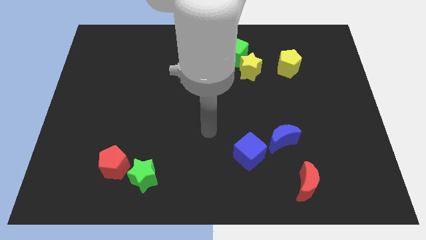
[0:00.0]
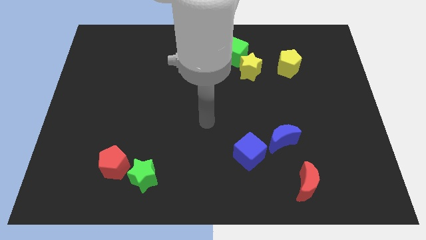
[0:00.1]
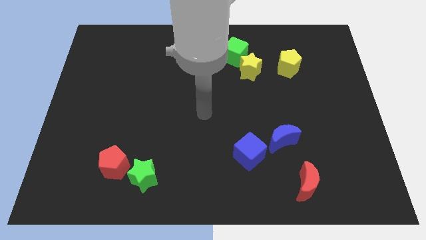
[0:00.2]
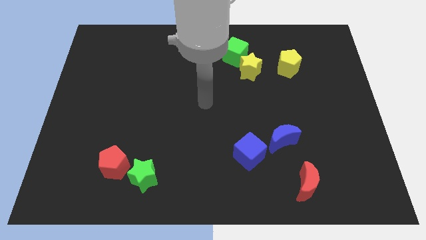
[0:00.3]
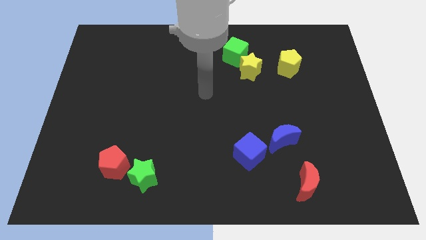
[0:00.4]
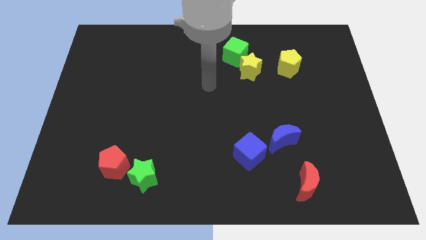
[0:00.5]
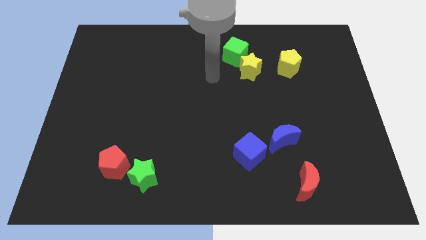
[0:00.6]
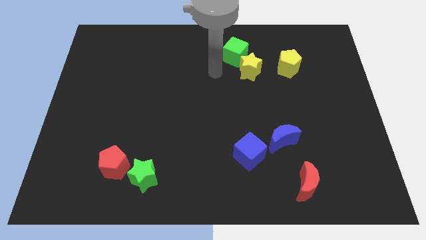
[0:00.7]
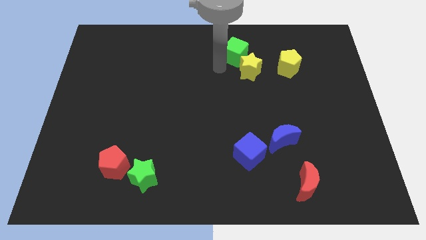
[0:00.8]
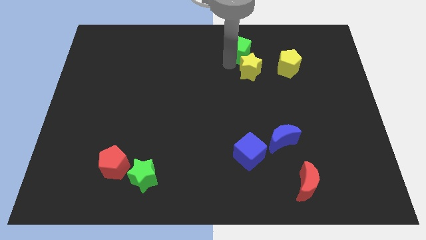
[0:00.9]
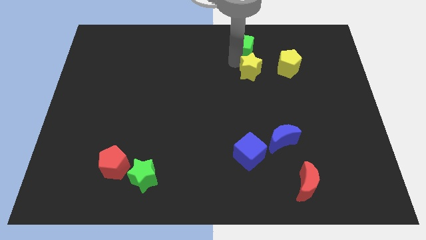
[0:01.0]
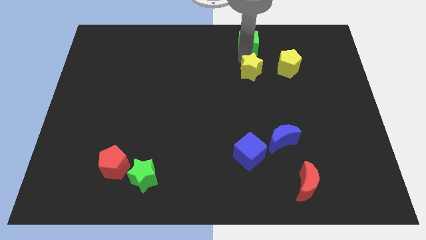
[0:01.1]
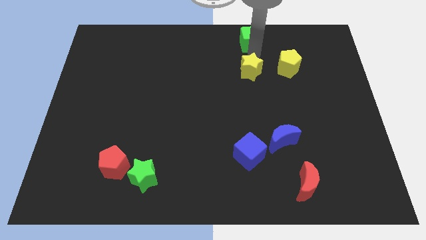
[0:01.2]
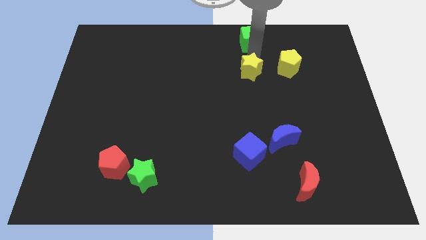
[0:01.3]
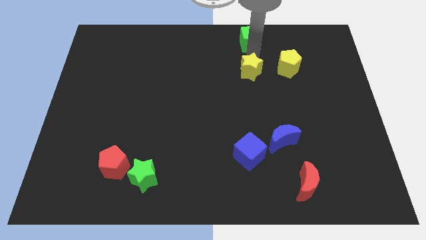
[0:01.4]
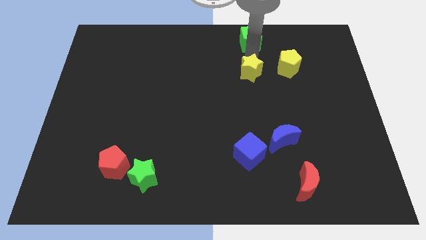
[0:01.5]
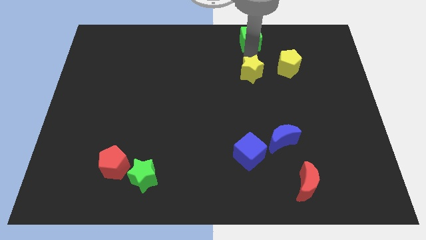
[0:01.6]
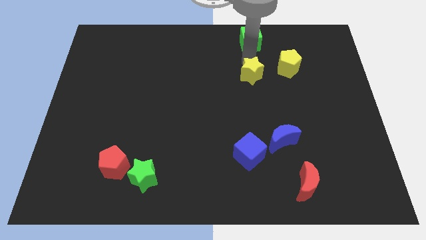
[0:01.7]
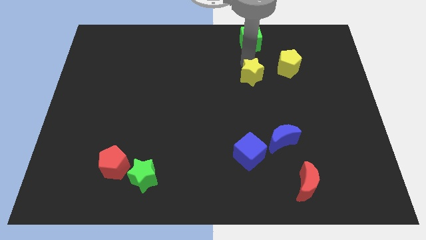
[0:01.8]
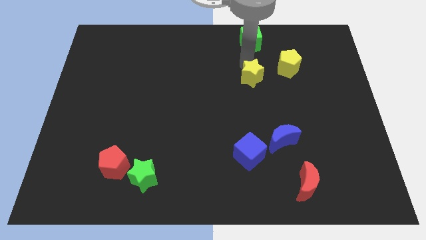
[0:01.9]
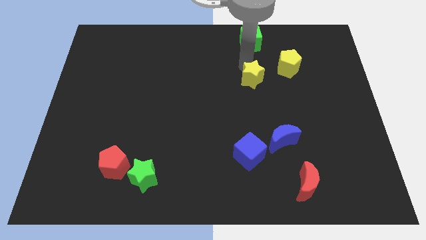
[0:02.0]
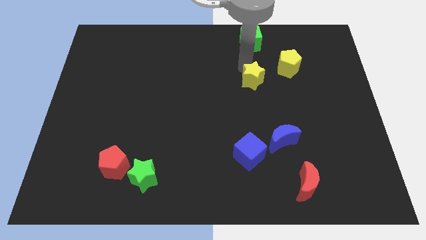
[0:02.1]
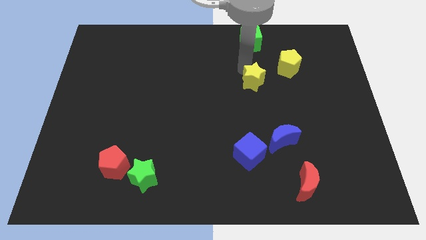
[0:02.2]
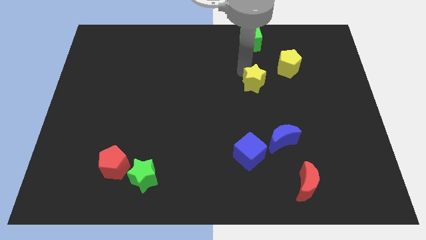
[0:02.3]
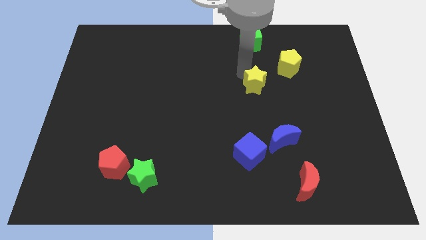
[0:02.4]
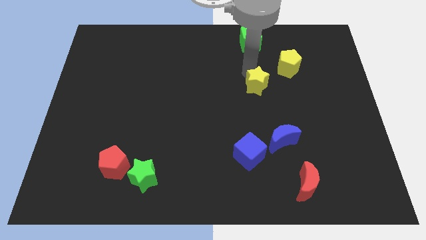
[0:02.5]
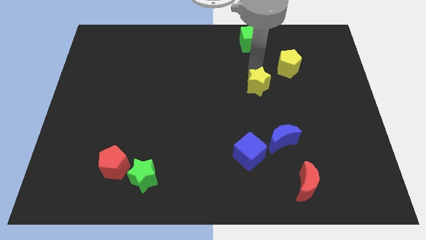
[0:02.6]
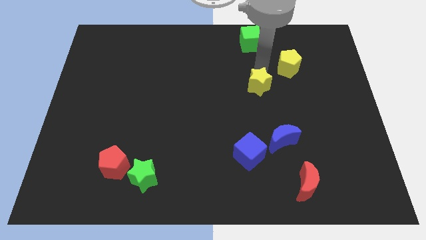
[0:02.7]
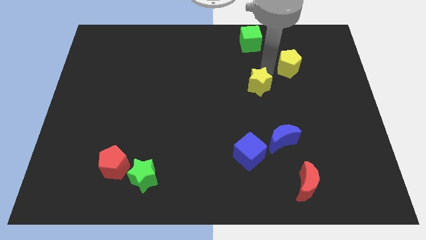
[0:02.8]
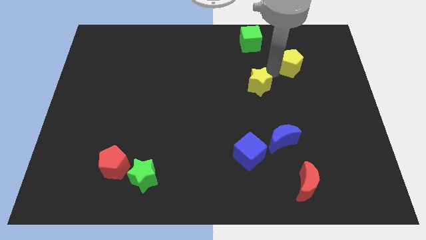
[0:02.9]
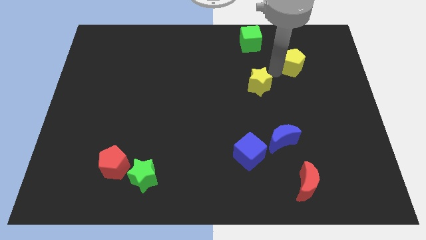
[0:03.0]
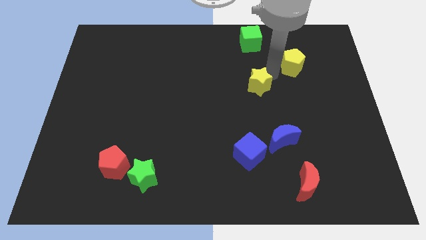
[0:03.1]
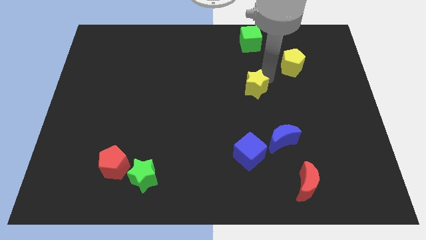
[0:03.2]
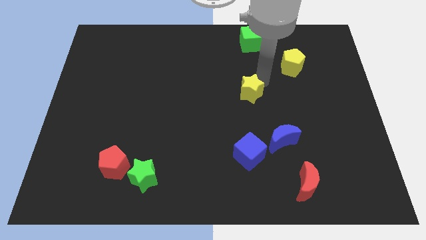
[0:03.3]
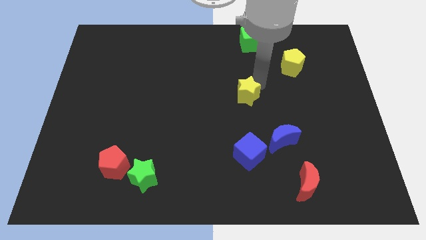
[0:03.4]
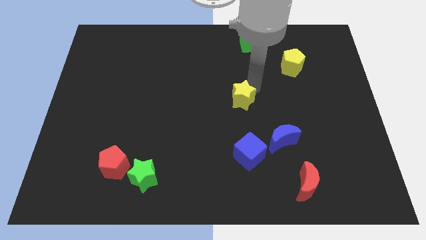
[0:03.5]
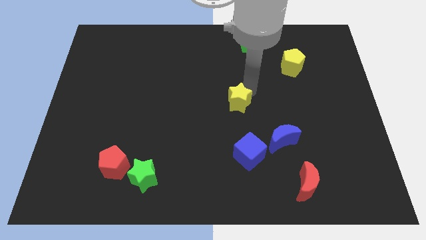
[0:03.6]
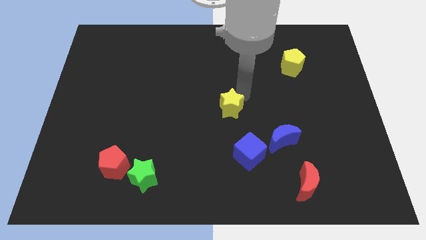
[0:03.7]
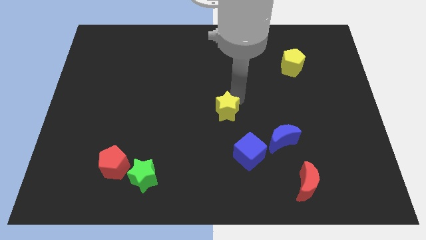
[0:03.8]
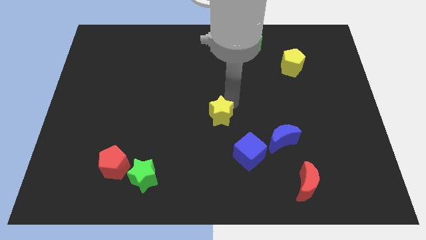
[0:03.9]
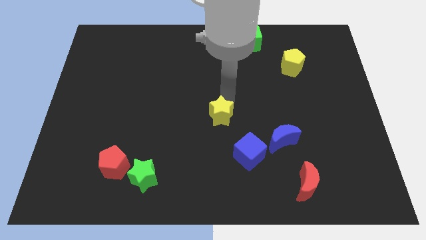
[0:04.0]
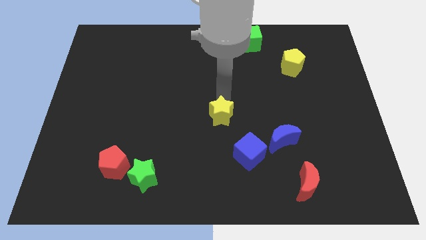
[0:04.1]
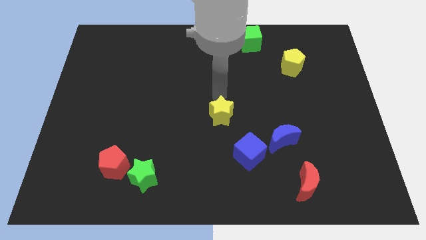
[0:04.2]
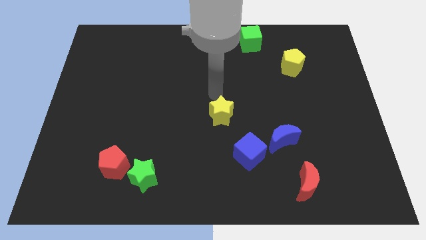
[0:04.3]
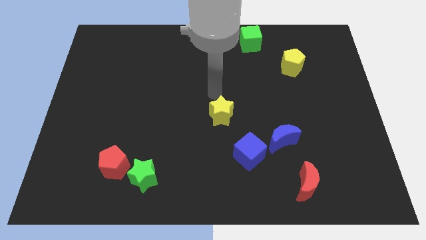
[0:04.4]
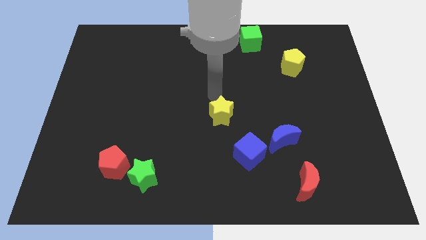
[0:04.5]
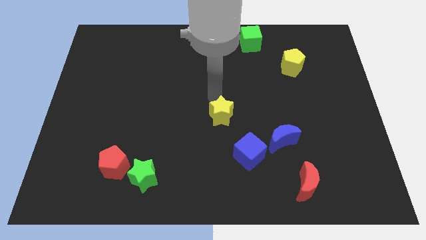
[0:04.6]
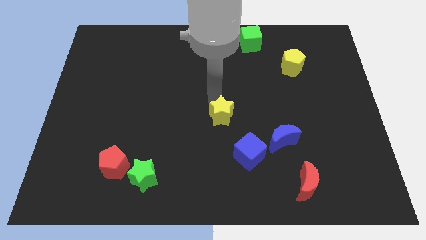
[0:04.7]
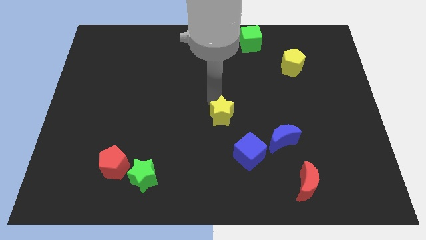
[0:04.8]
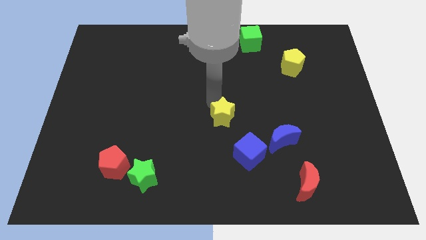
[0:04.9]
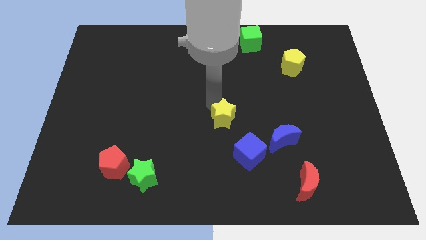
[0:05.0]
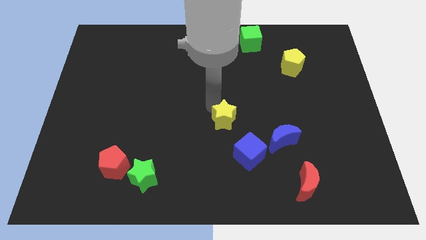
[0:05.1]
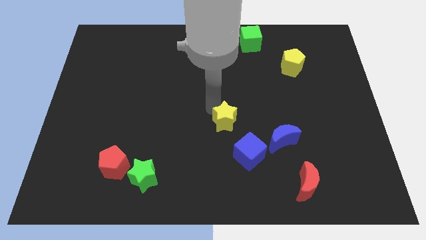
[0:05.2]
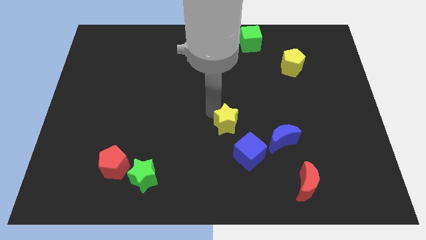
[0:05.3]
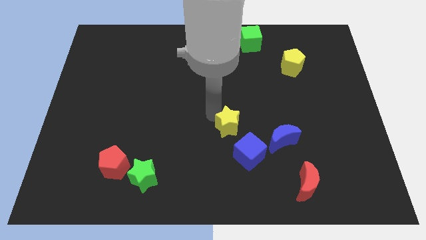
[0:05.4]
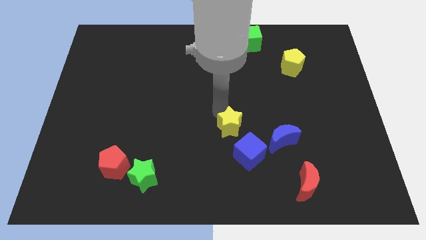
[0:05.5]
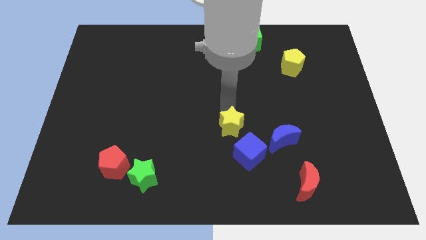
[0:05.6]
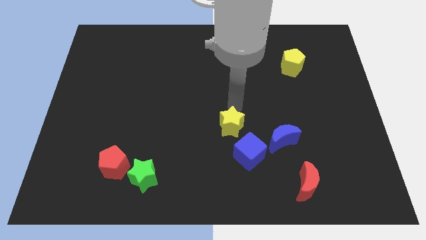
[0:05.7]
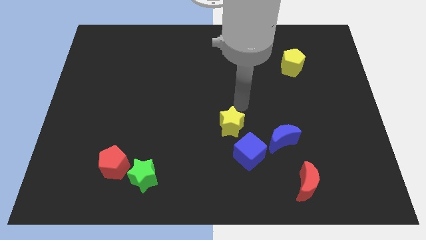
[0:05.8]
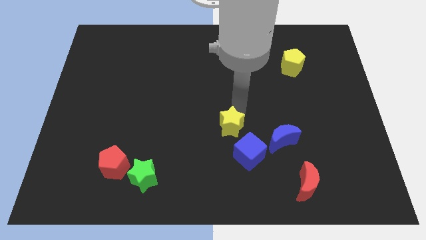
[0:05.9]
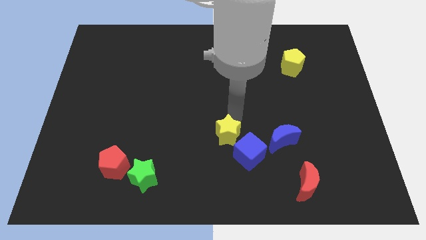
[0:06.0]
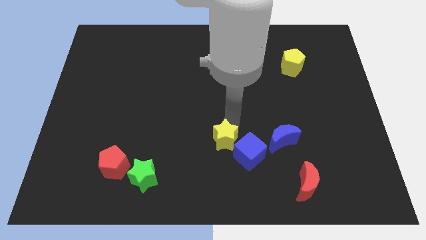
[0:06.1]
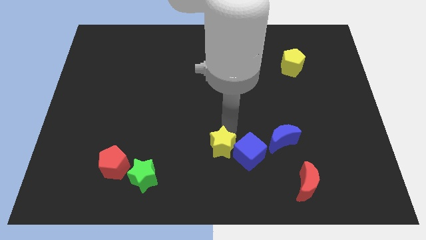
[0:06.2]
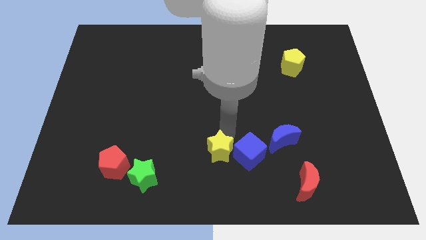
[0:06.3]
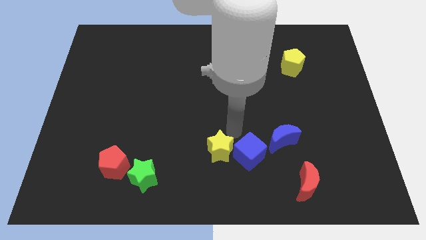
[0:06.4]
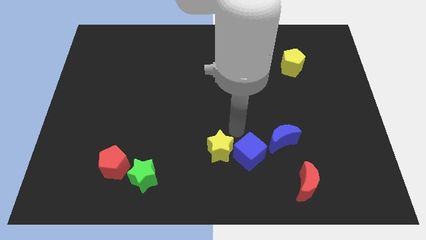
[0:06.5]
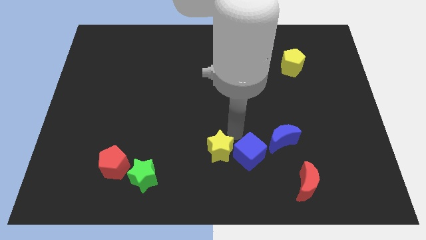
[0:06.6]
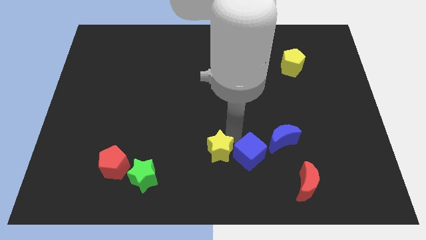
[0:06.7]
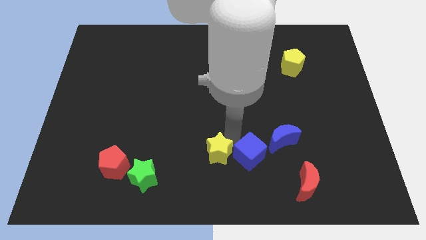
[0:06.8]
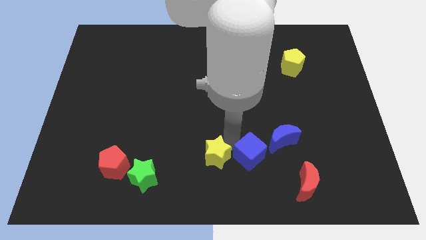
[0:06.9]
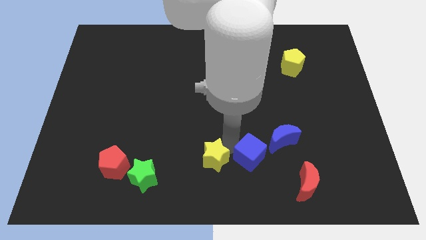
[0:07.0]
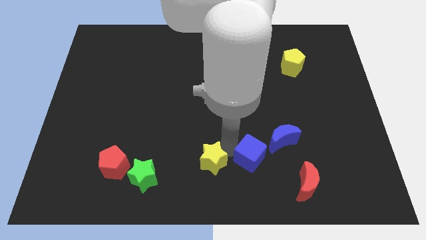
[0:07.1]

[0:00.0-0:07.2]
put the yellow star just right of the green star

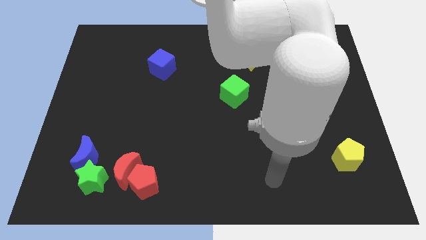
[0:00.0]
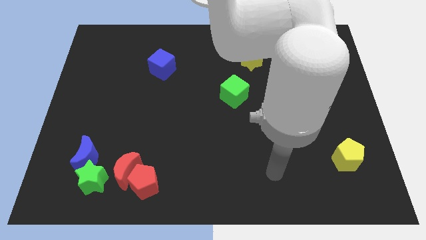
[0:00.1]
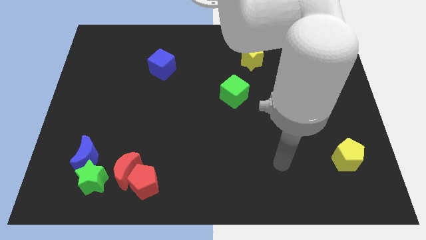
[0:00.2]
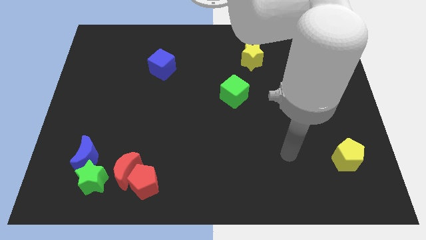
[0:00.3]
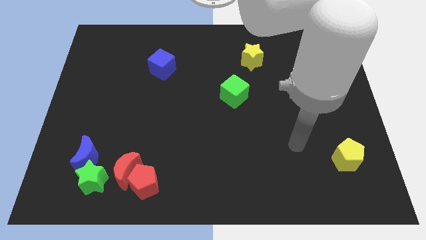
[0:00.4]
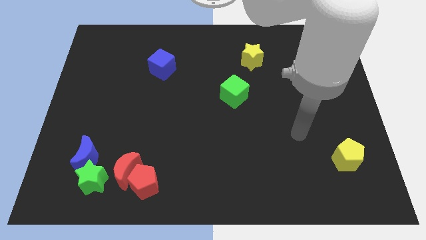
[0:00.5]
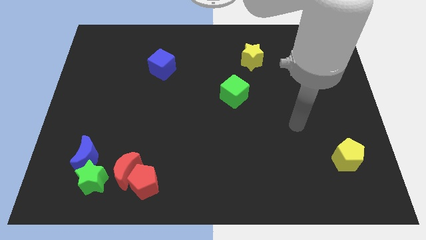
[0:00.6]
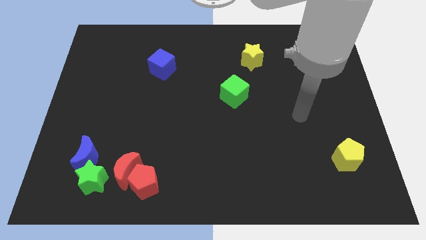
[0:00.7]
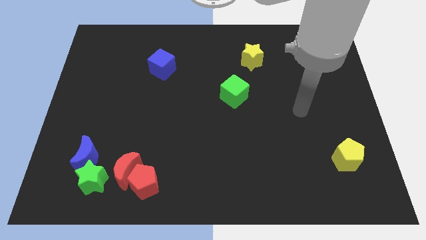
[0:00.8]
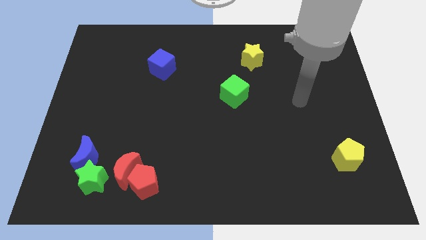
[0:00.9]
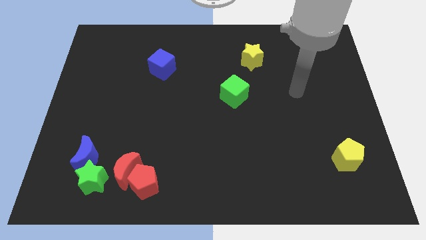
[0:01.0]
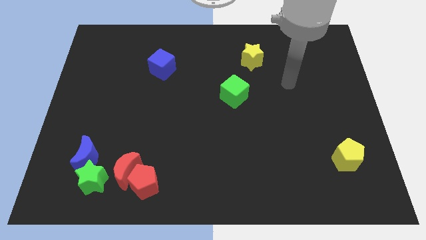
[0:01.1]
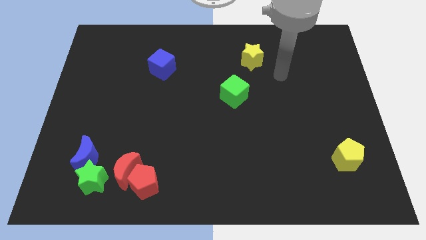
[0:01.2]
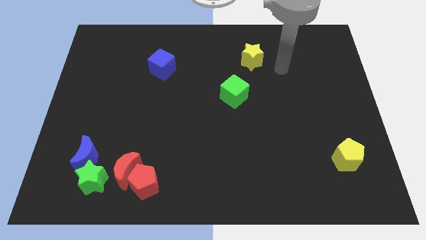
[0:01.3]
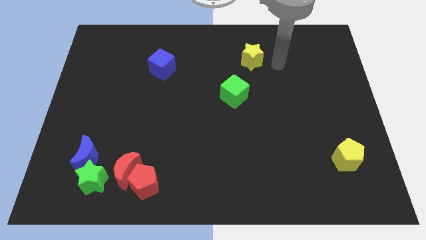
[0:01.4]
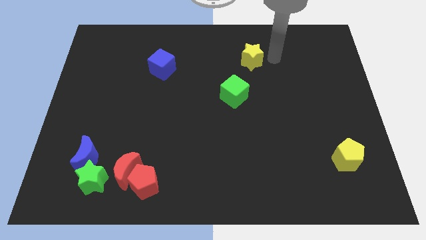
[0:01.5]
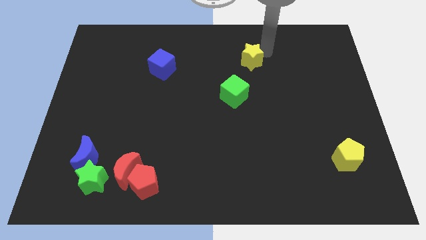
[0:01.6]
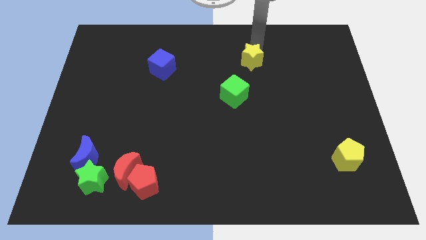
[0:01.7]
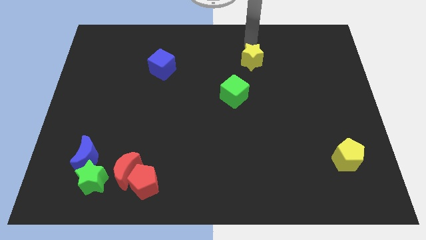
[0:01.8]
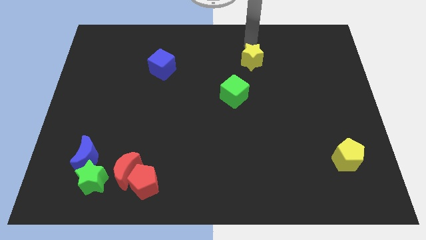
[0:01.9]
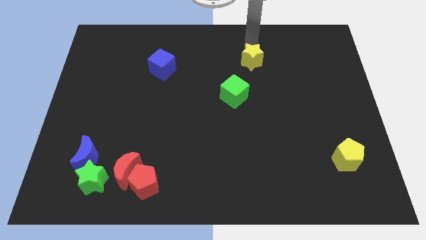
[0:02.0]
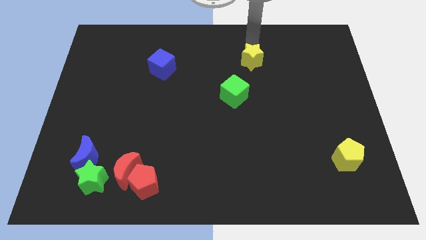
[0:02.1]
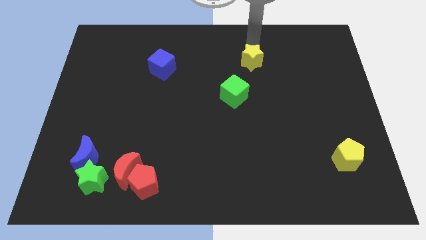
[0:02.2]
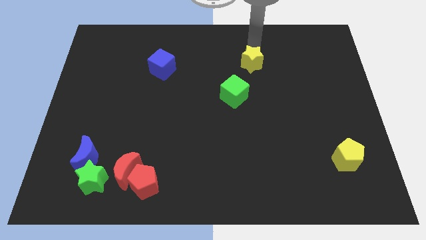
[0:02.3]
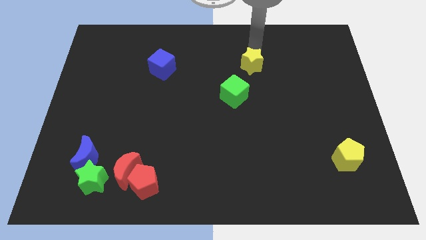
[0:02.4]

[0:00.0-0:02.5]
move the yellow star to the top right of the green cube
